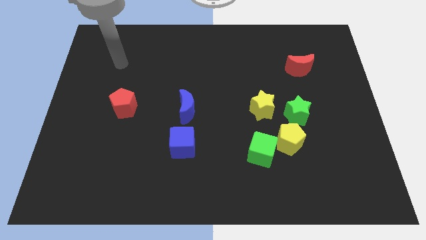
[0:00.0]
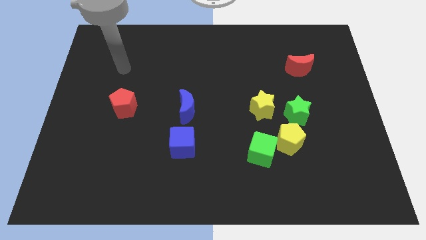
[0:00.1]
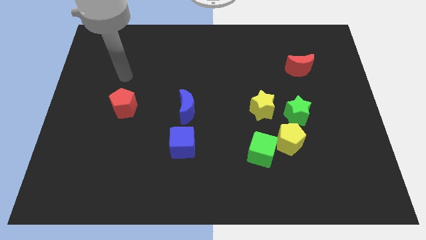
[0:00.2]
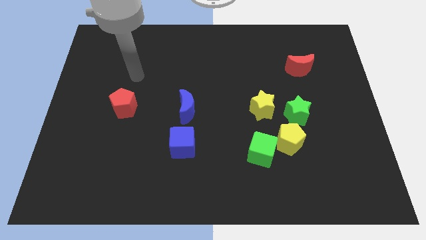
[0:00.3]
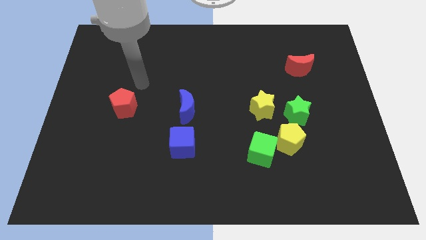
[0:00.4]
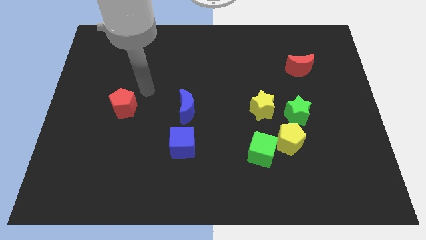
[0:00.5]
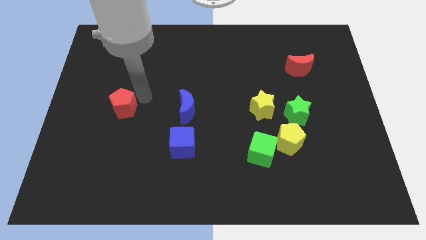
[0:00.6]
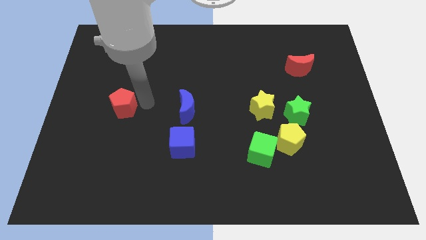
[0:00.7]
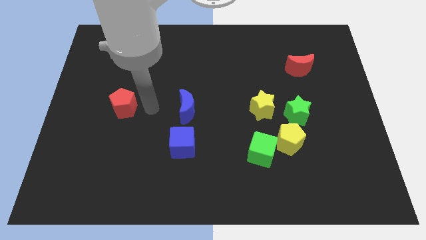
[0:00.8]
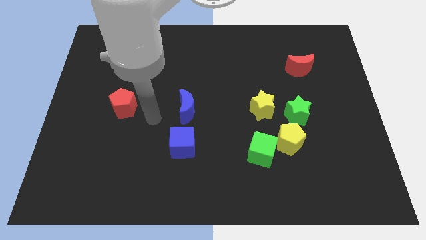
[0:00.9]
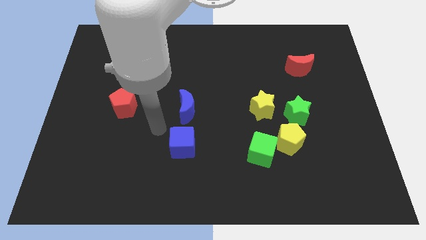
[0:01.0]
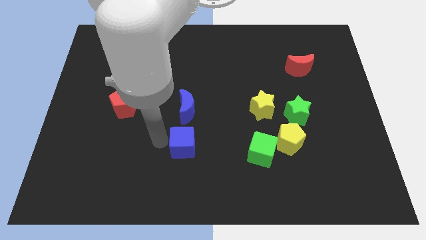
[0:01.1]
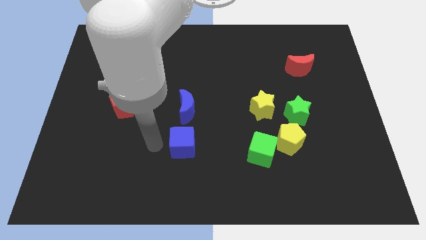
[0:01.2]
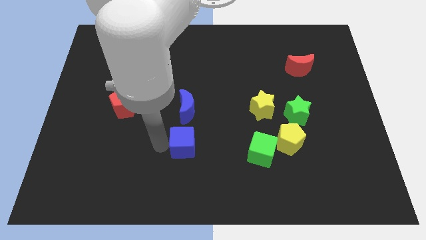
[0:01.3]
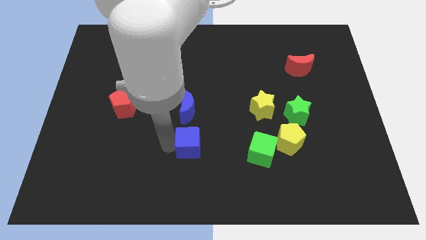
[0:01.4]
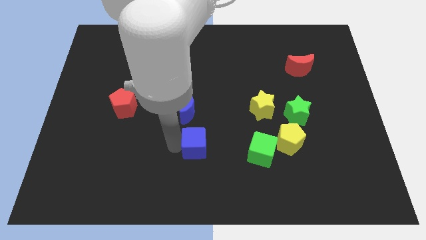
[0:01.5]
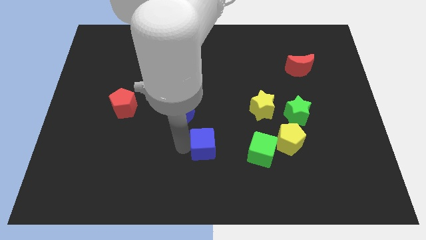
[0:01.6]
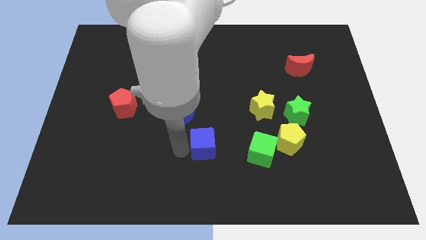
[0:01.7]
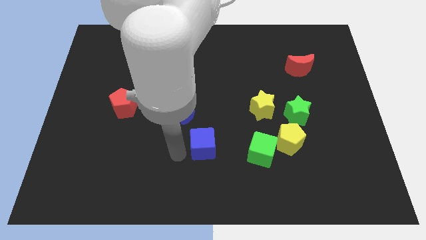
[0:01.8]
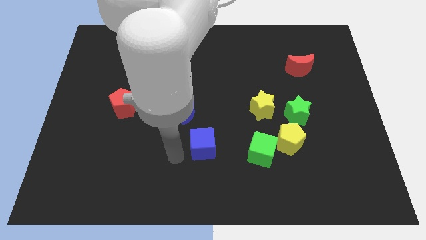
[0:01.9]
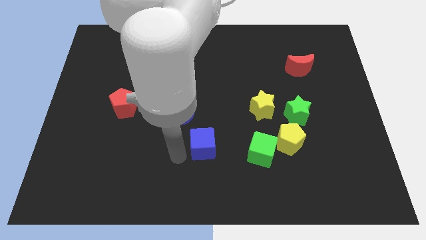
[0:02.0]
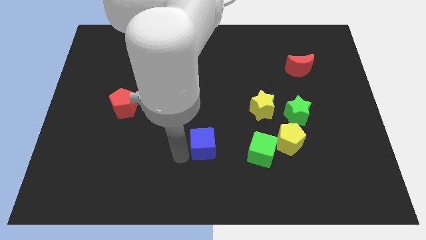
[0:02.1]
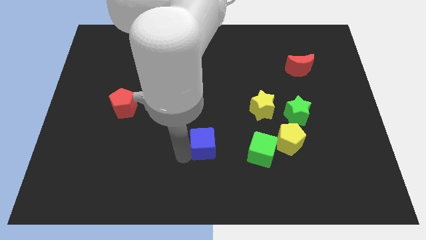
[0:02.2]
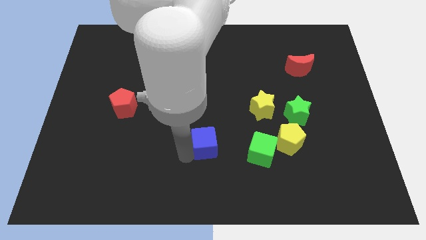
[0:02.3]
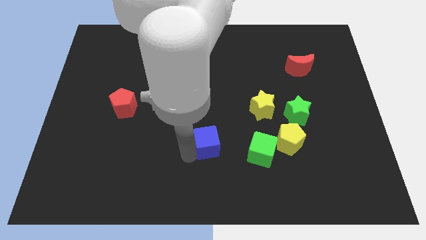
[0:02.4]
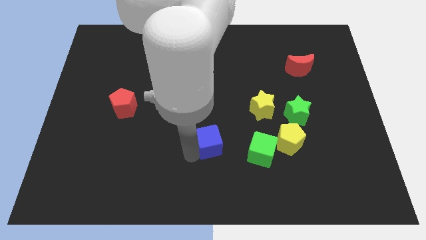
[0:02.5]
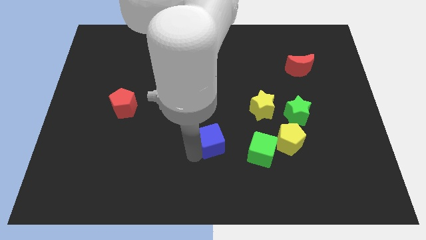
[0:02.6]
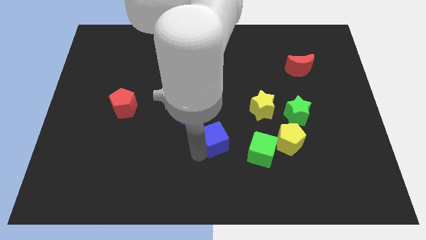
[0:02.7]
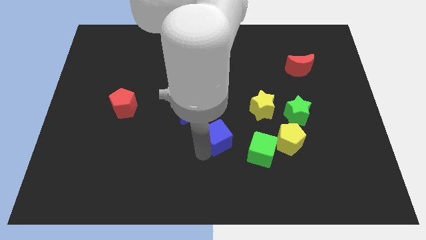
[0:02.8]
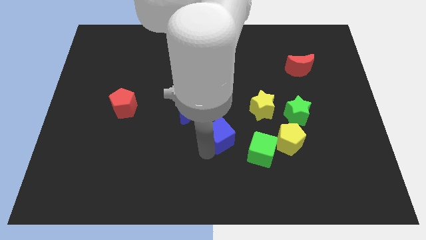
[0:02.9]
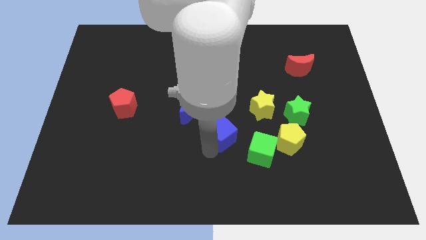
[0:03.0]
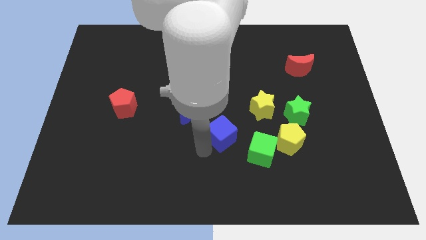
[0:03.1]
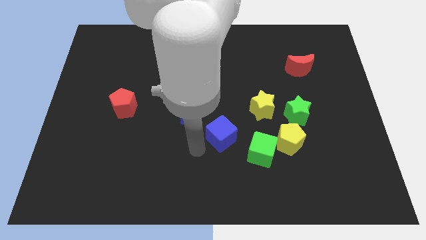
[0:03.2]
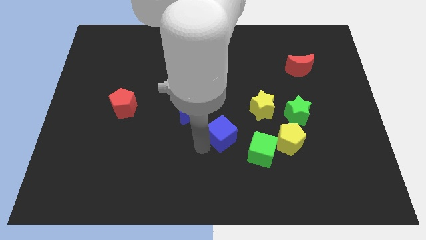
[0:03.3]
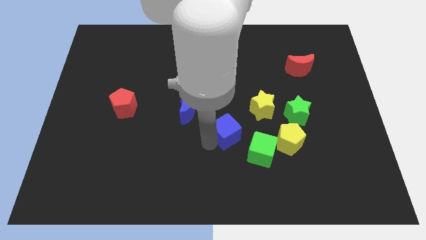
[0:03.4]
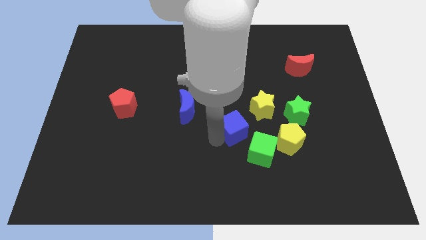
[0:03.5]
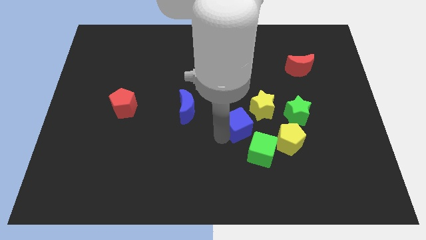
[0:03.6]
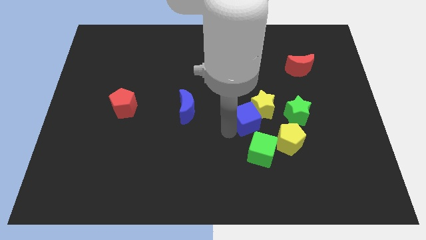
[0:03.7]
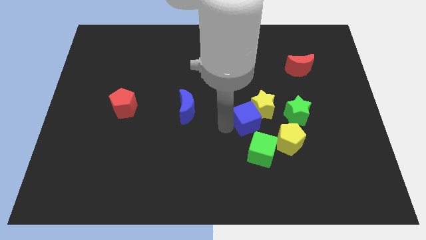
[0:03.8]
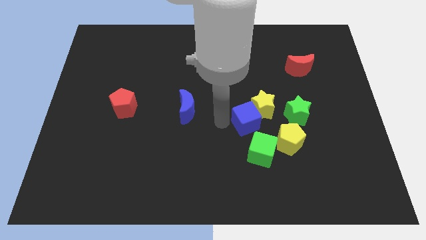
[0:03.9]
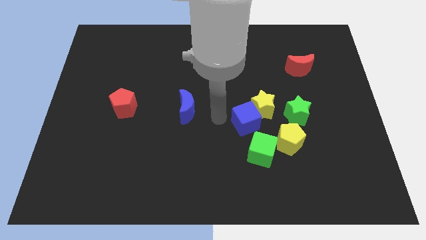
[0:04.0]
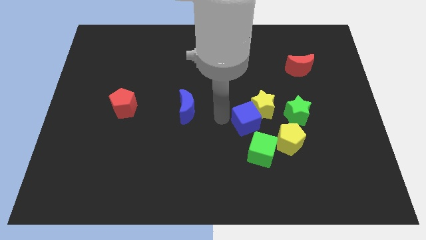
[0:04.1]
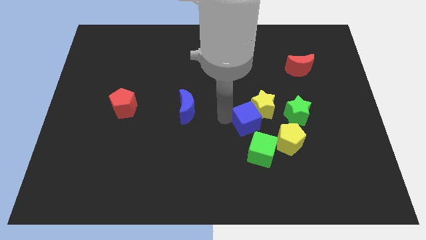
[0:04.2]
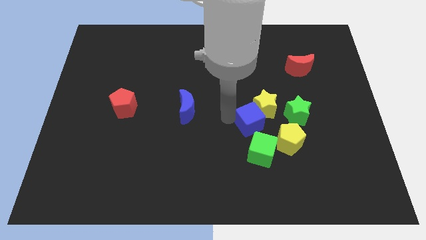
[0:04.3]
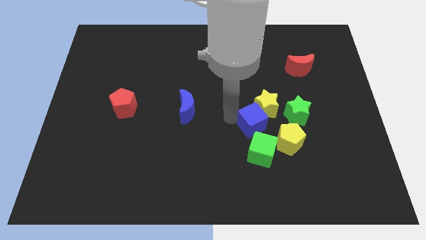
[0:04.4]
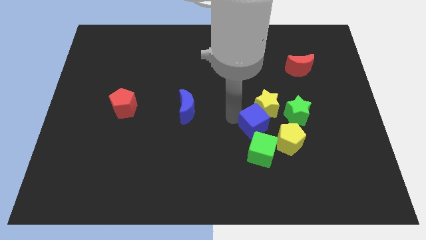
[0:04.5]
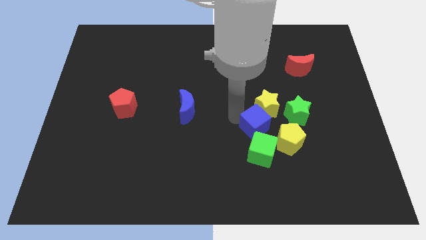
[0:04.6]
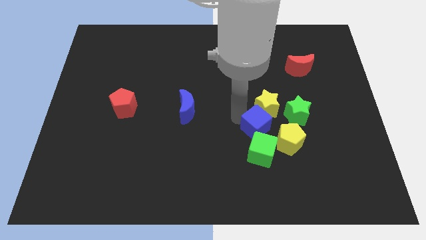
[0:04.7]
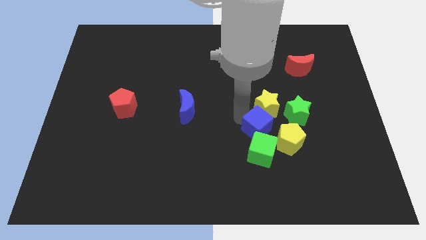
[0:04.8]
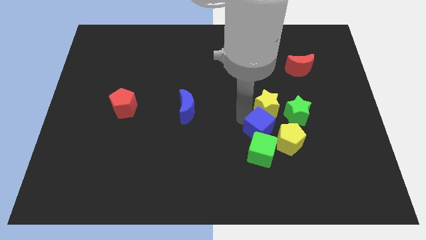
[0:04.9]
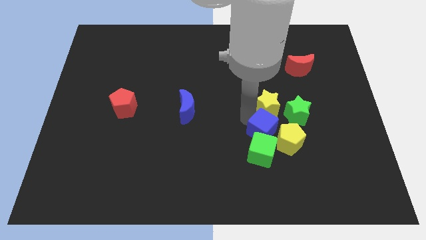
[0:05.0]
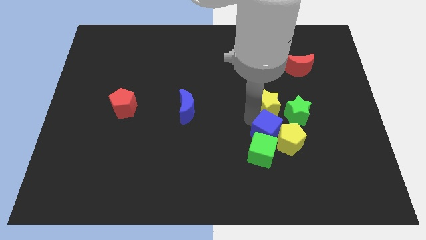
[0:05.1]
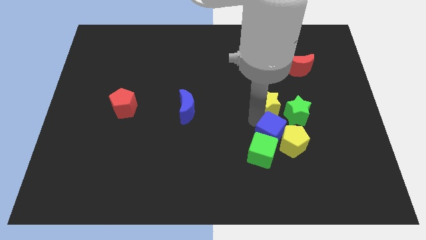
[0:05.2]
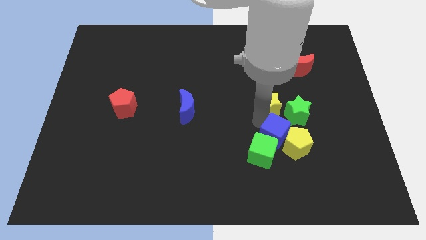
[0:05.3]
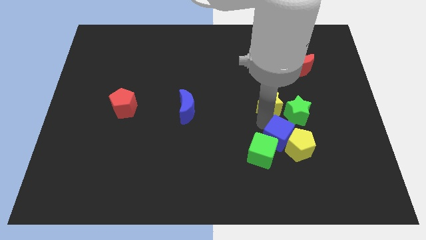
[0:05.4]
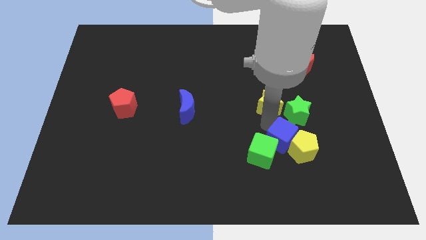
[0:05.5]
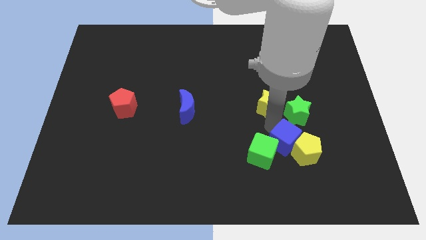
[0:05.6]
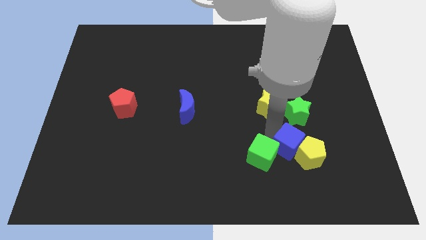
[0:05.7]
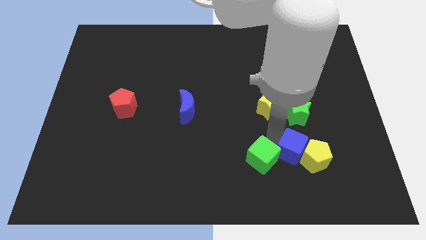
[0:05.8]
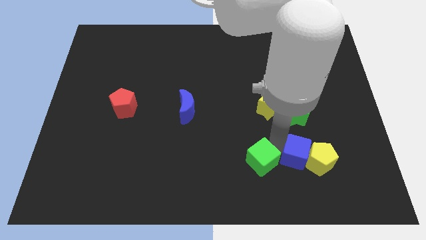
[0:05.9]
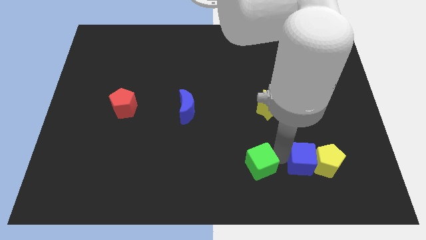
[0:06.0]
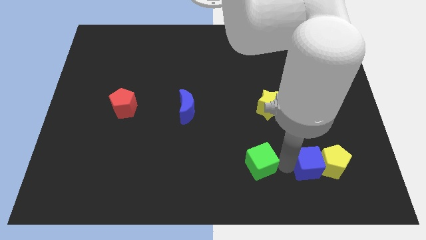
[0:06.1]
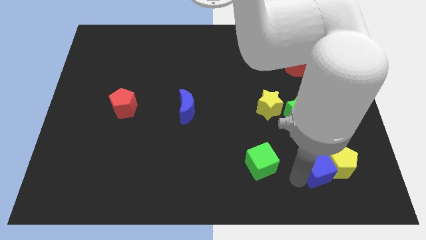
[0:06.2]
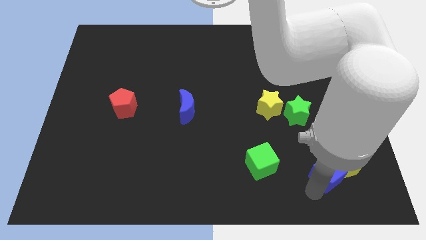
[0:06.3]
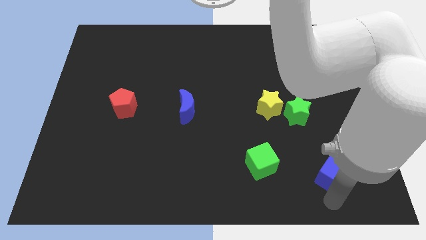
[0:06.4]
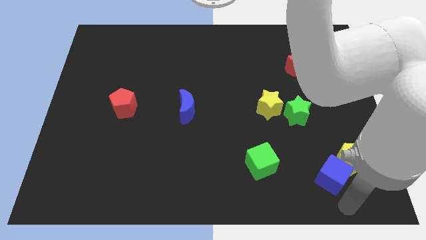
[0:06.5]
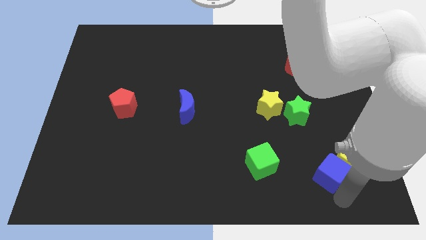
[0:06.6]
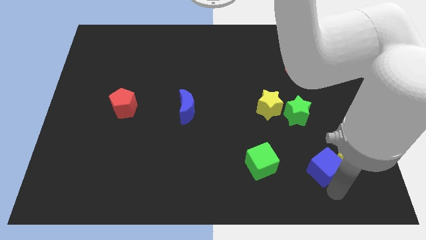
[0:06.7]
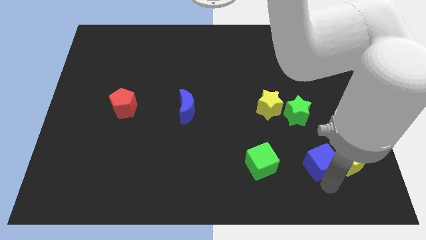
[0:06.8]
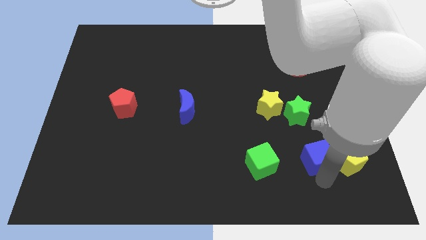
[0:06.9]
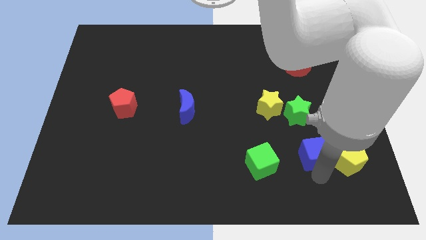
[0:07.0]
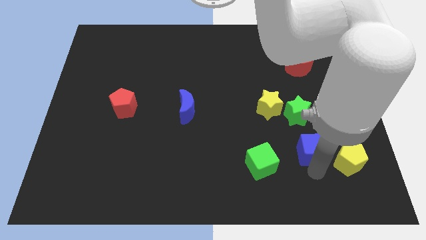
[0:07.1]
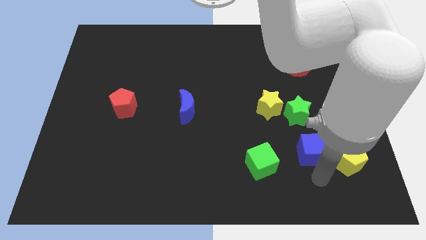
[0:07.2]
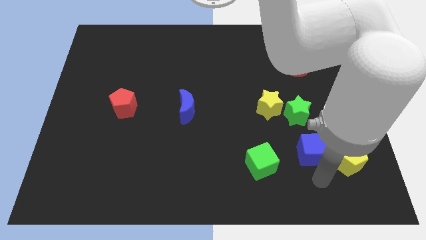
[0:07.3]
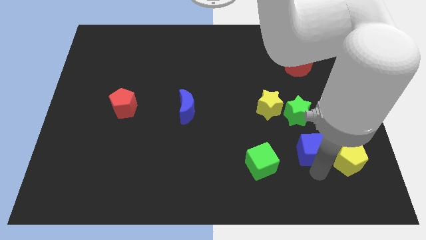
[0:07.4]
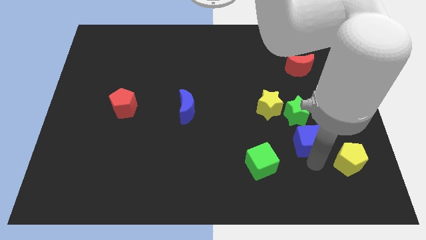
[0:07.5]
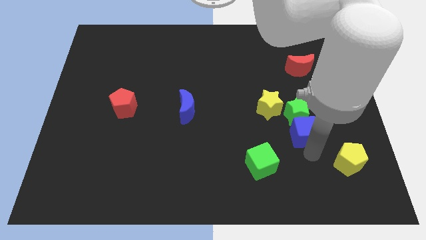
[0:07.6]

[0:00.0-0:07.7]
push the blue cube close to the green star

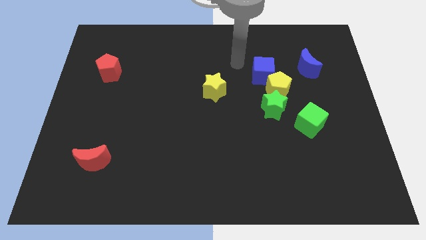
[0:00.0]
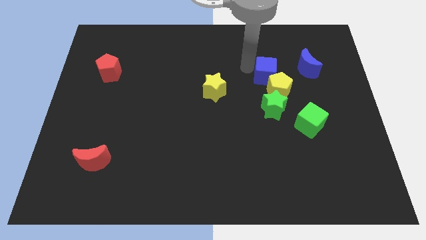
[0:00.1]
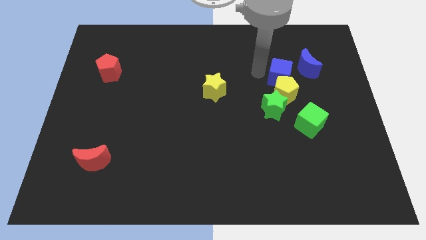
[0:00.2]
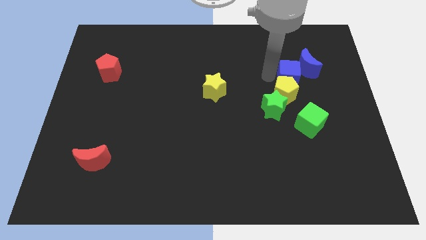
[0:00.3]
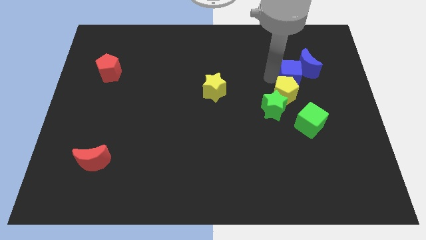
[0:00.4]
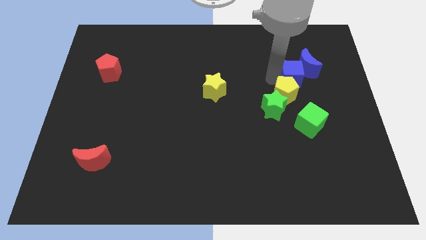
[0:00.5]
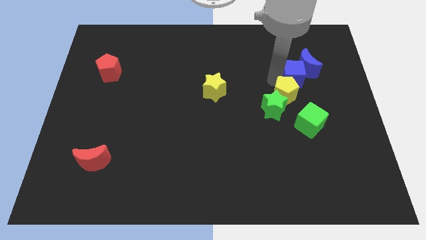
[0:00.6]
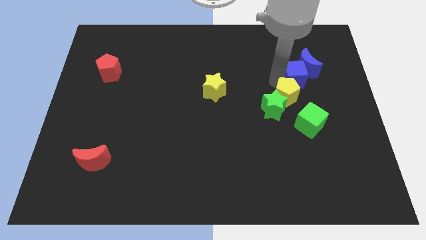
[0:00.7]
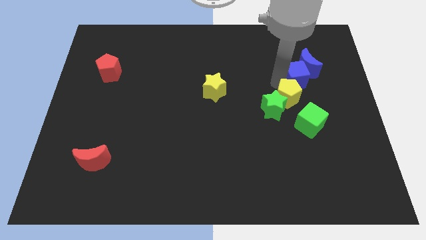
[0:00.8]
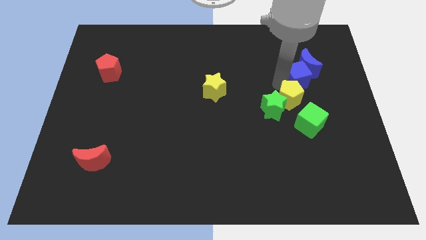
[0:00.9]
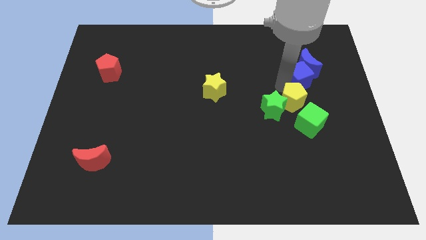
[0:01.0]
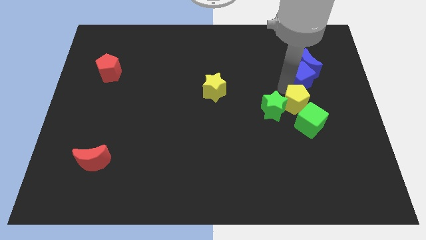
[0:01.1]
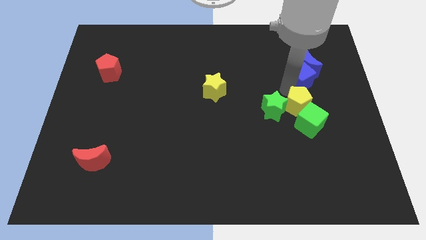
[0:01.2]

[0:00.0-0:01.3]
slide the yellow pentagon towards the green cube
